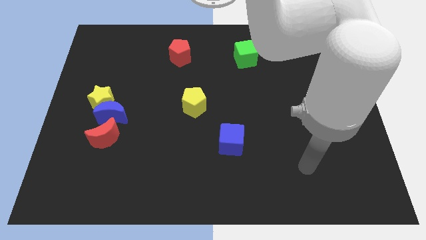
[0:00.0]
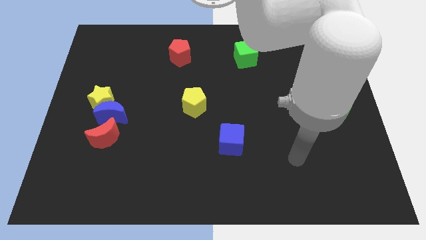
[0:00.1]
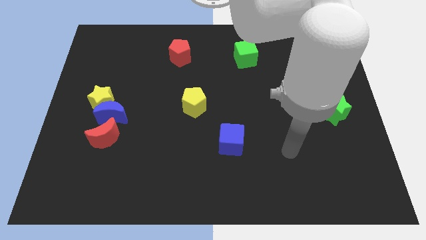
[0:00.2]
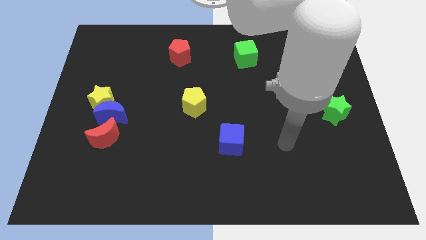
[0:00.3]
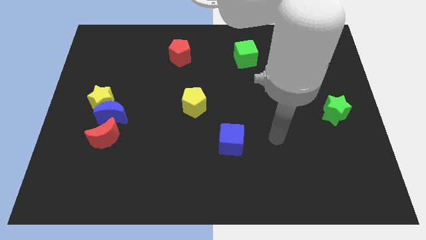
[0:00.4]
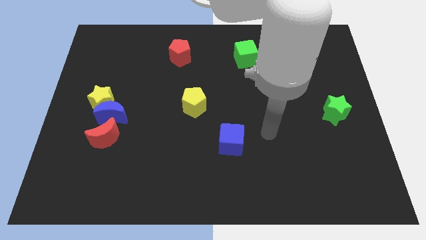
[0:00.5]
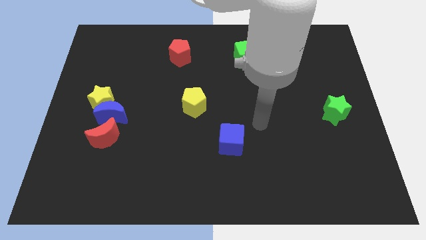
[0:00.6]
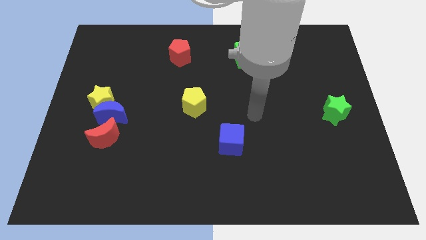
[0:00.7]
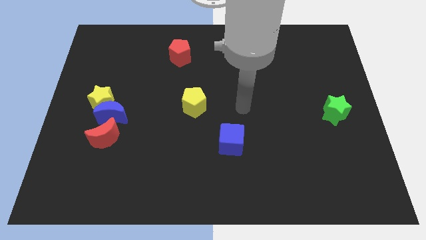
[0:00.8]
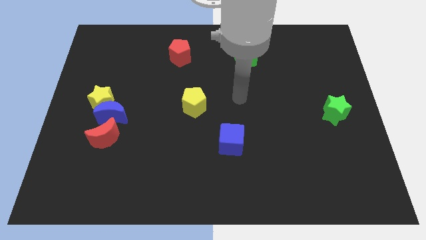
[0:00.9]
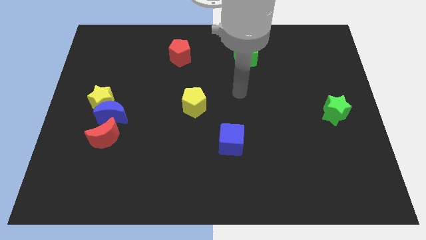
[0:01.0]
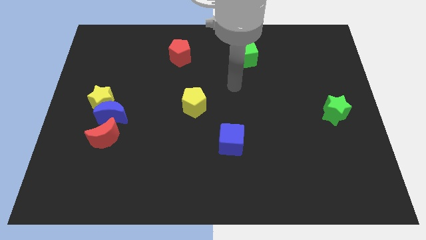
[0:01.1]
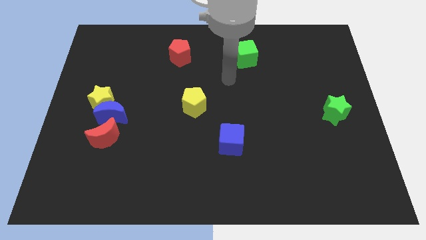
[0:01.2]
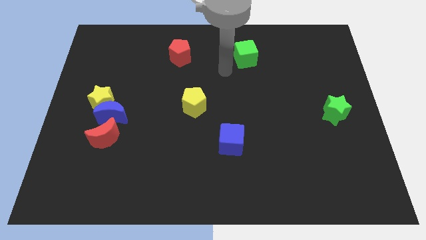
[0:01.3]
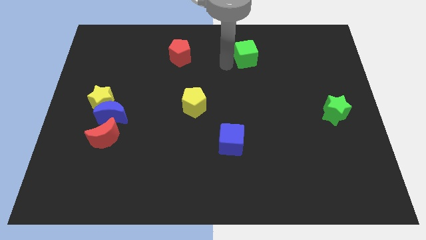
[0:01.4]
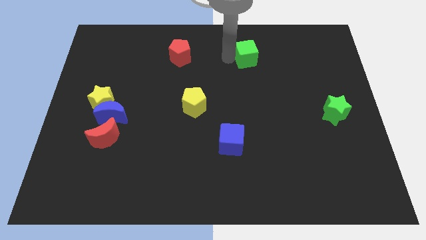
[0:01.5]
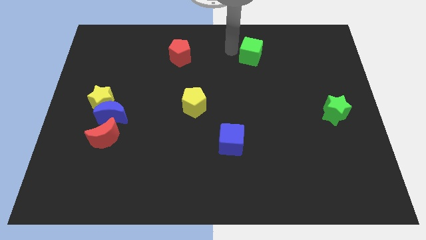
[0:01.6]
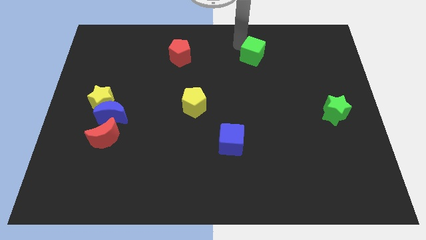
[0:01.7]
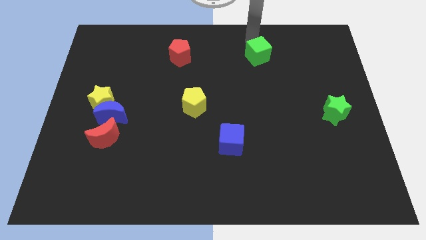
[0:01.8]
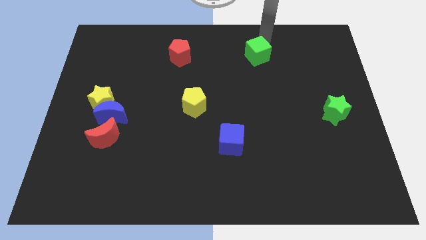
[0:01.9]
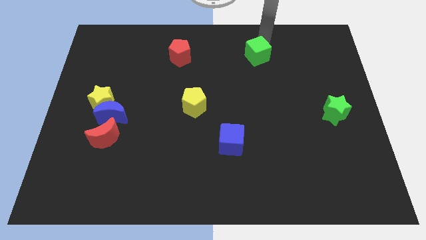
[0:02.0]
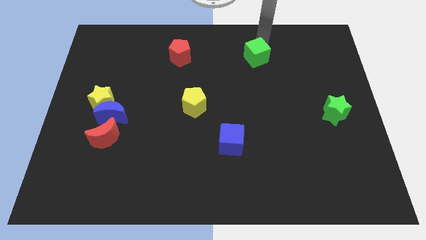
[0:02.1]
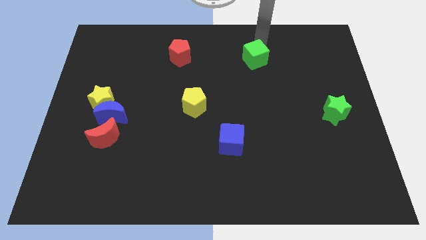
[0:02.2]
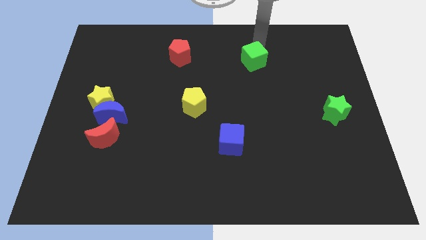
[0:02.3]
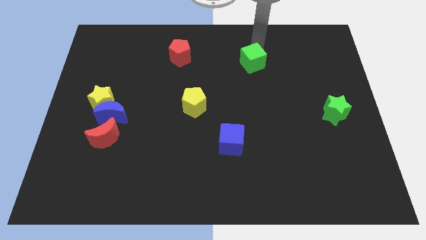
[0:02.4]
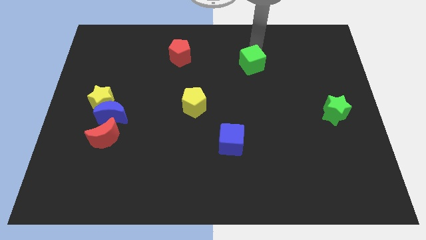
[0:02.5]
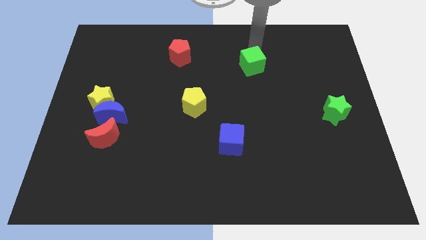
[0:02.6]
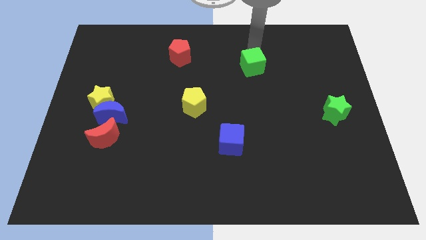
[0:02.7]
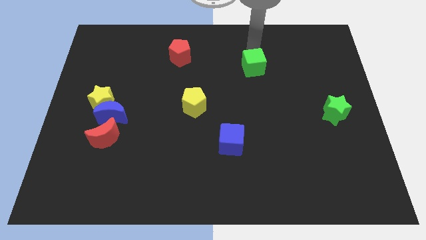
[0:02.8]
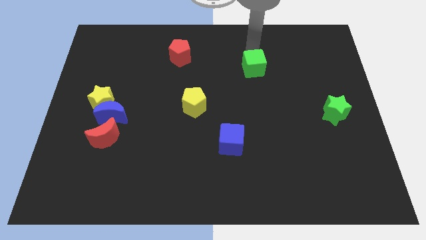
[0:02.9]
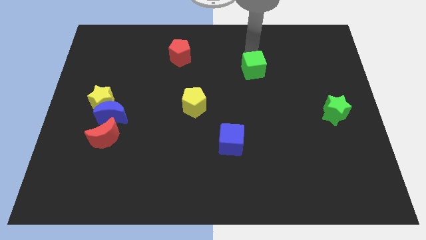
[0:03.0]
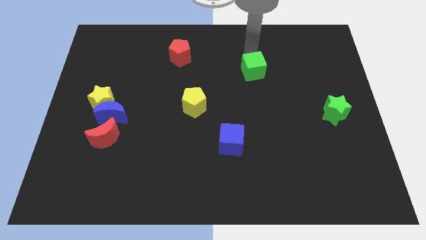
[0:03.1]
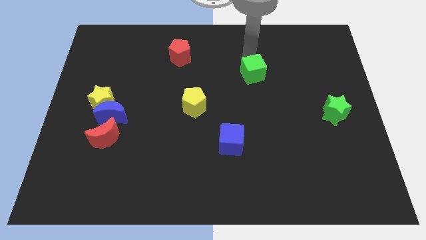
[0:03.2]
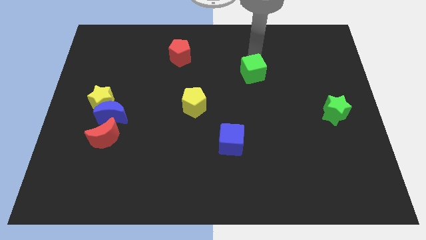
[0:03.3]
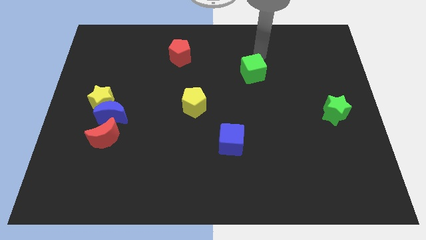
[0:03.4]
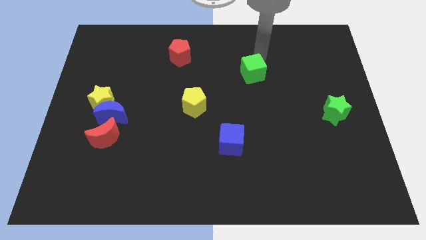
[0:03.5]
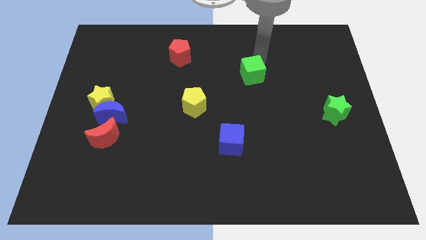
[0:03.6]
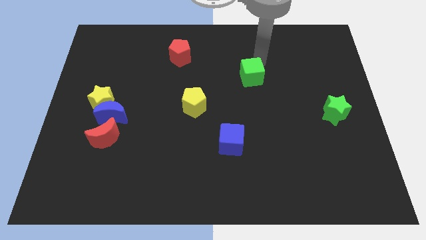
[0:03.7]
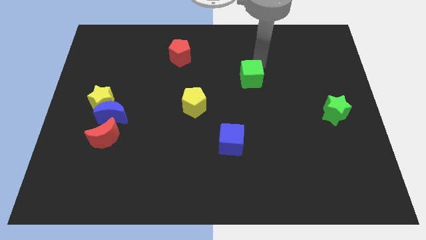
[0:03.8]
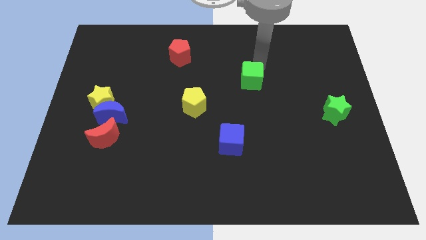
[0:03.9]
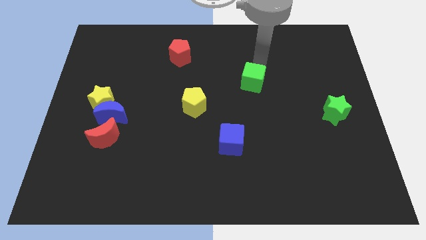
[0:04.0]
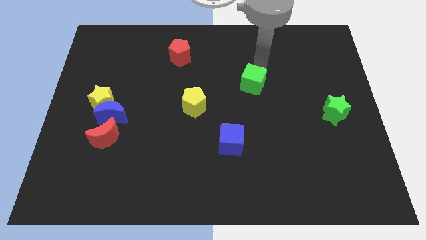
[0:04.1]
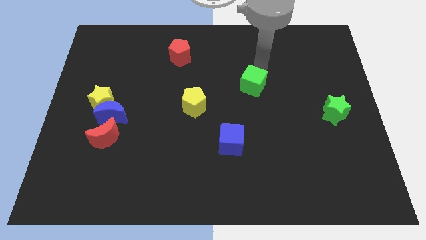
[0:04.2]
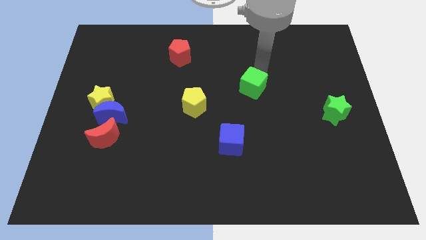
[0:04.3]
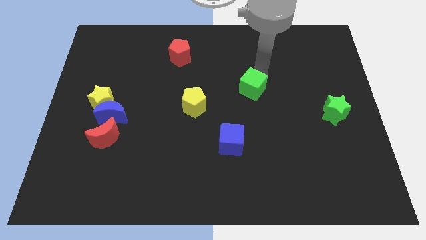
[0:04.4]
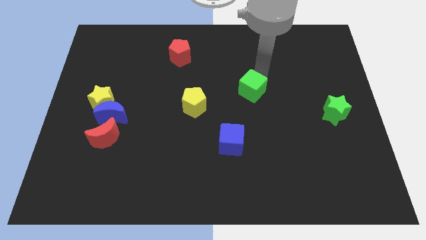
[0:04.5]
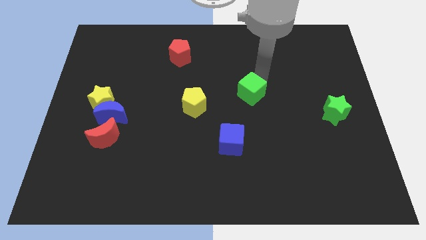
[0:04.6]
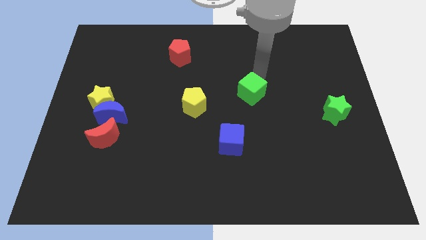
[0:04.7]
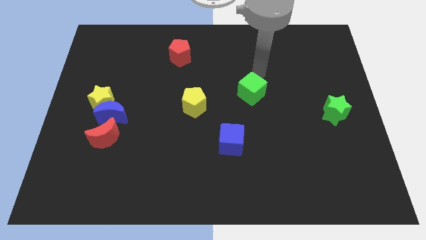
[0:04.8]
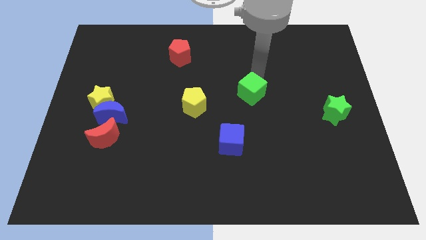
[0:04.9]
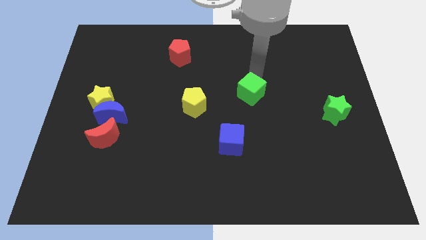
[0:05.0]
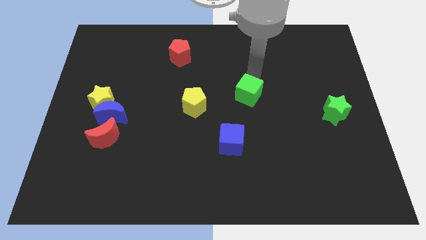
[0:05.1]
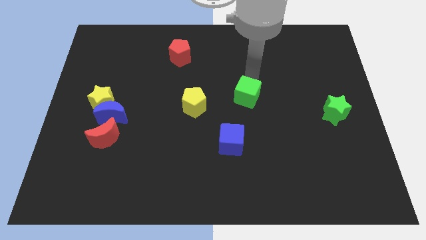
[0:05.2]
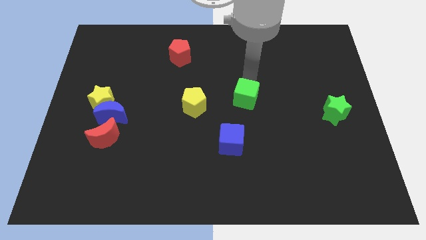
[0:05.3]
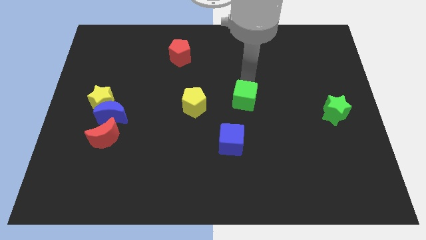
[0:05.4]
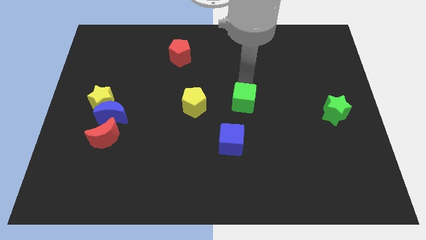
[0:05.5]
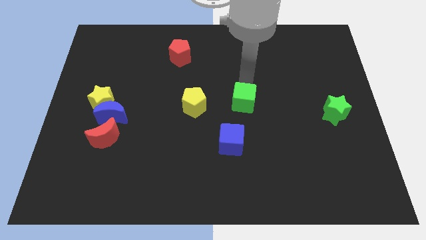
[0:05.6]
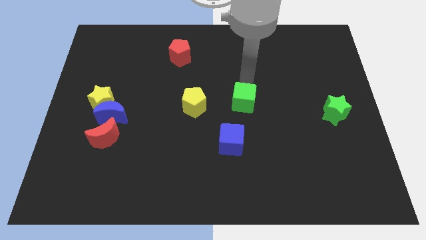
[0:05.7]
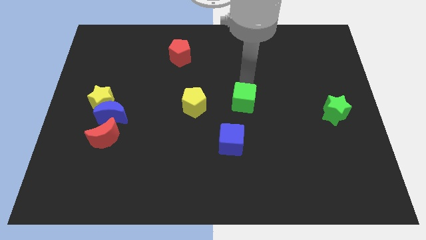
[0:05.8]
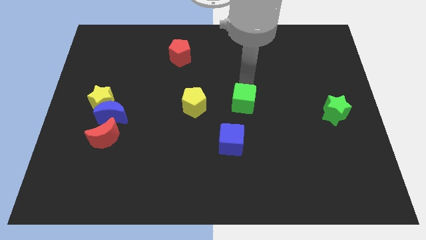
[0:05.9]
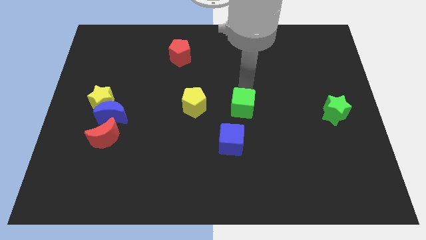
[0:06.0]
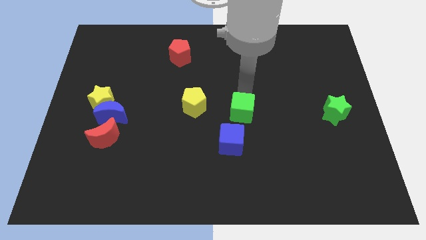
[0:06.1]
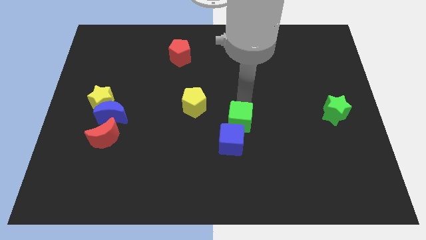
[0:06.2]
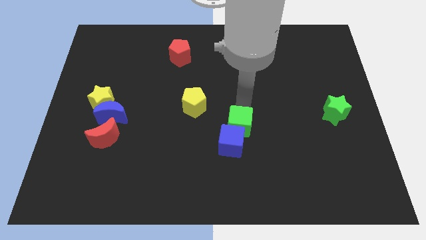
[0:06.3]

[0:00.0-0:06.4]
slide the green cube close to the blue cube

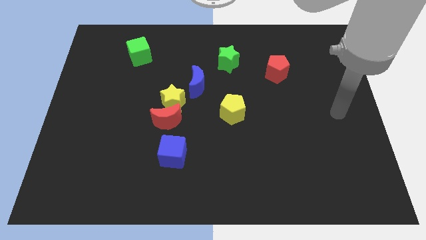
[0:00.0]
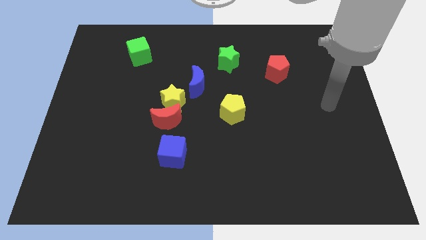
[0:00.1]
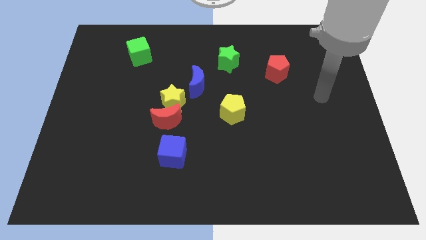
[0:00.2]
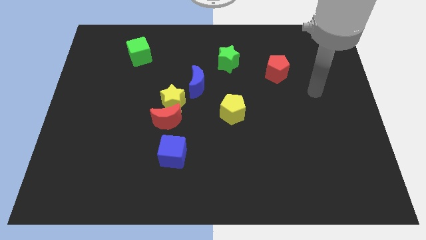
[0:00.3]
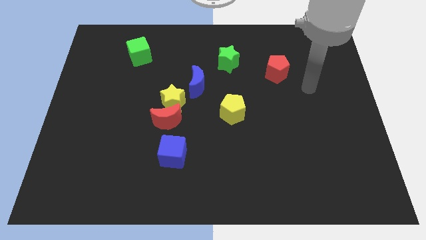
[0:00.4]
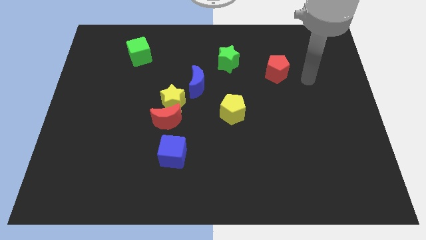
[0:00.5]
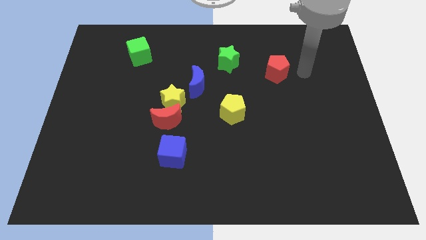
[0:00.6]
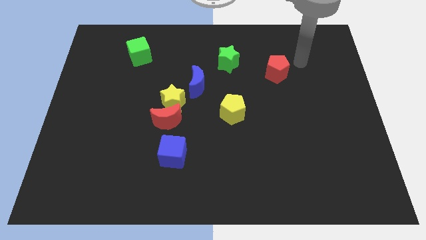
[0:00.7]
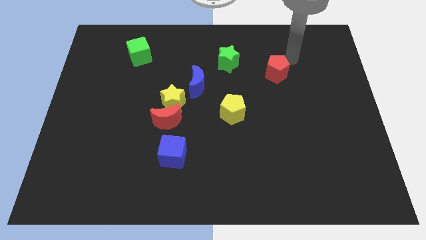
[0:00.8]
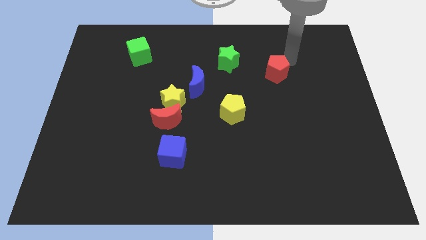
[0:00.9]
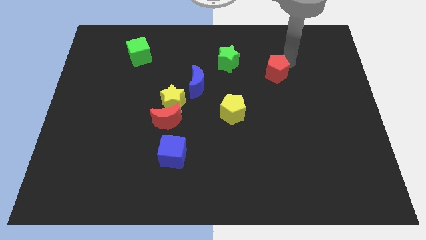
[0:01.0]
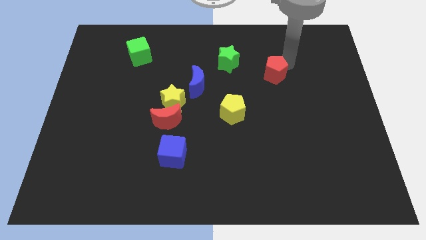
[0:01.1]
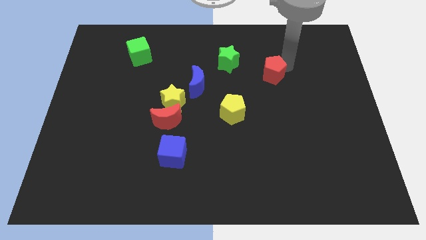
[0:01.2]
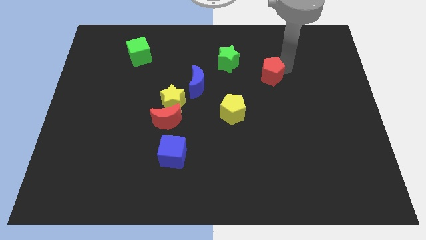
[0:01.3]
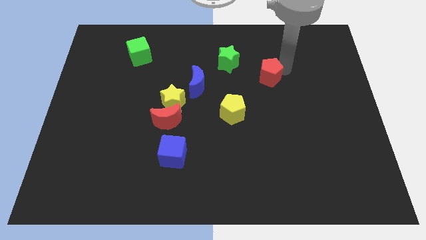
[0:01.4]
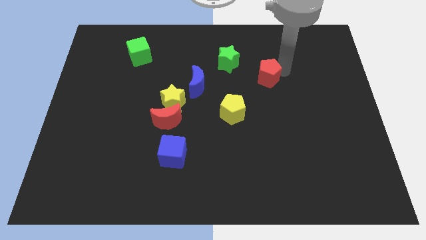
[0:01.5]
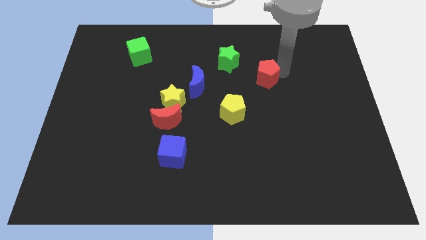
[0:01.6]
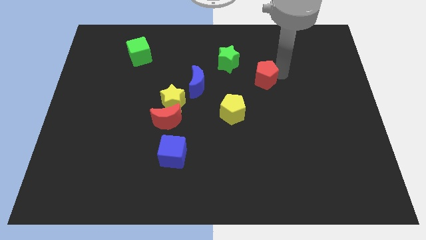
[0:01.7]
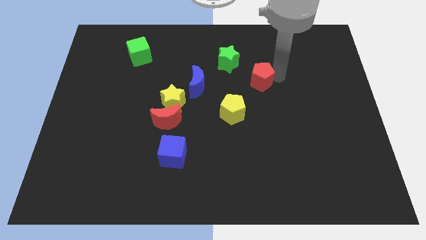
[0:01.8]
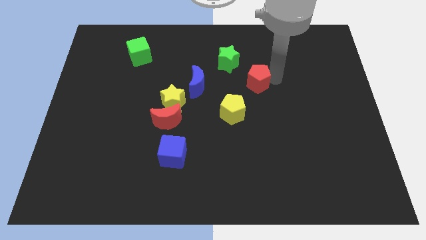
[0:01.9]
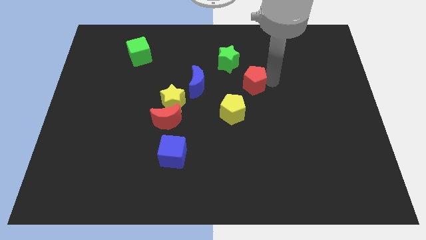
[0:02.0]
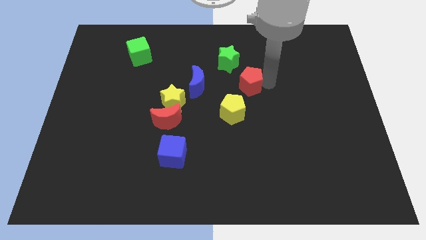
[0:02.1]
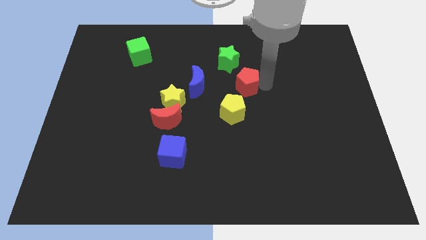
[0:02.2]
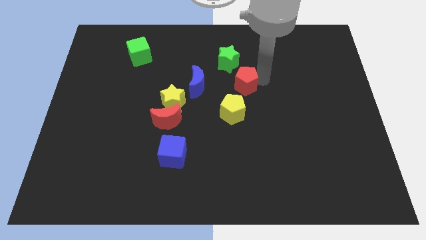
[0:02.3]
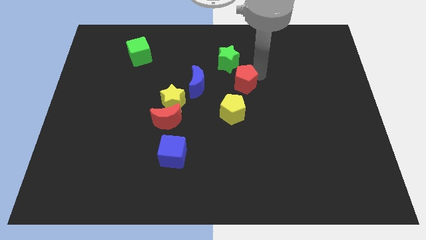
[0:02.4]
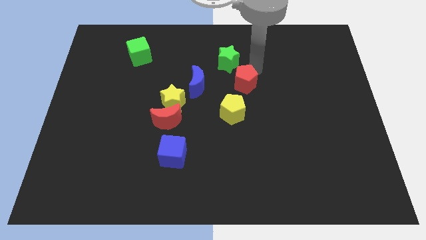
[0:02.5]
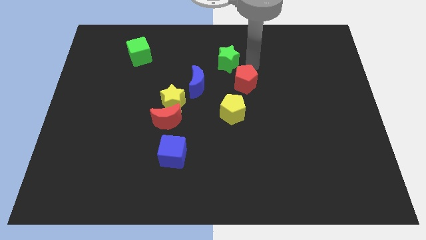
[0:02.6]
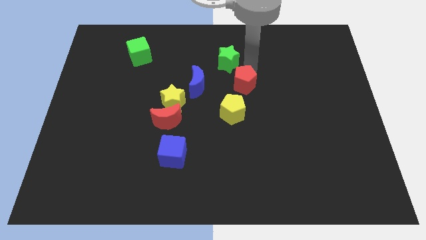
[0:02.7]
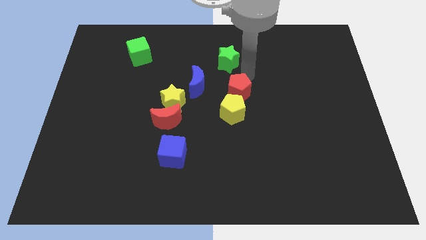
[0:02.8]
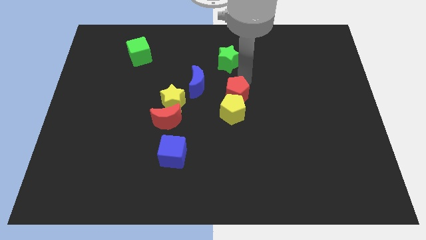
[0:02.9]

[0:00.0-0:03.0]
move the red pentagon towards the yellow pentagon
